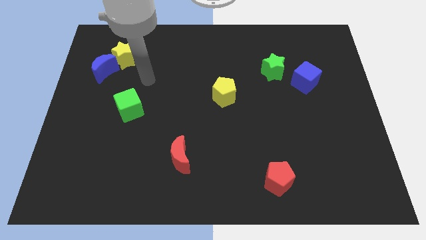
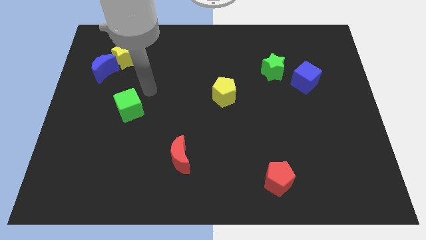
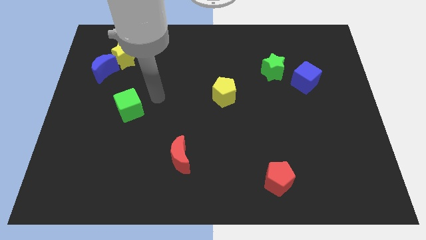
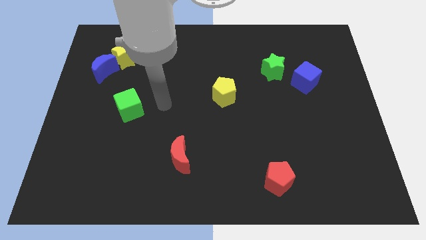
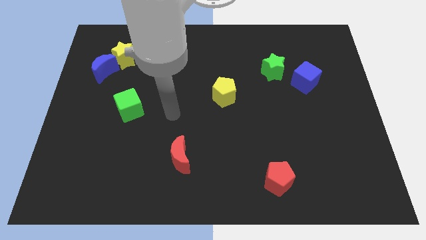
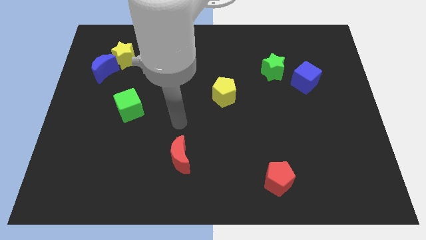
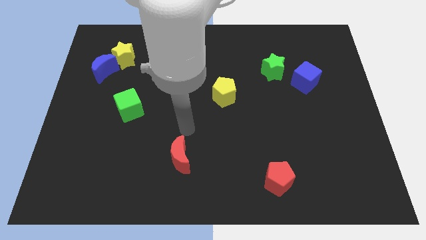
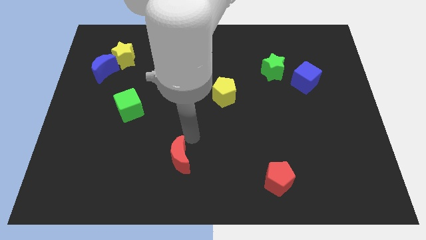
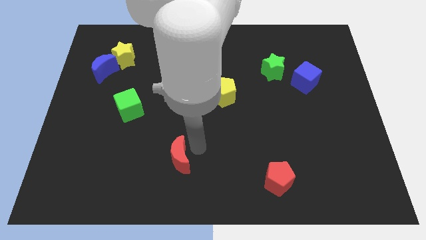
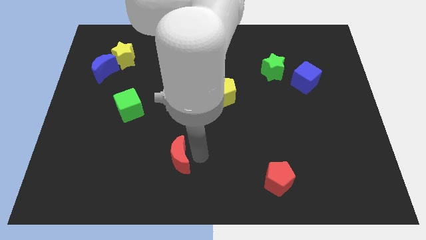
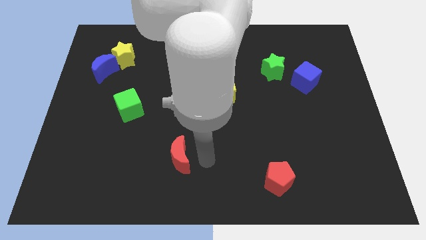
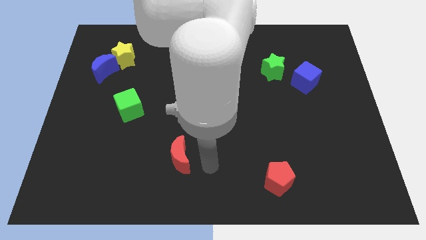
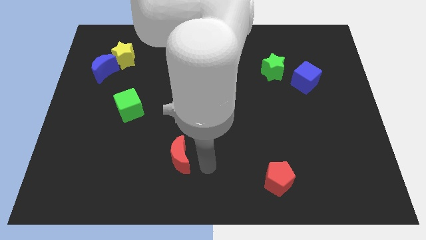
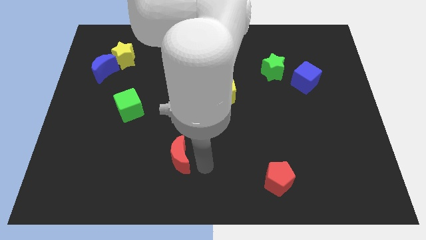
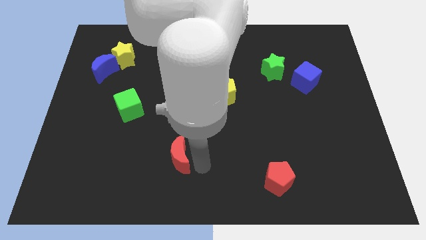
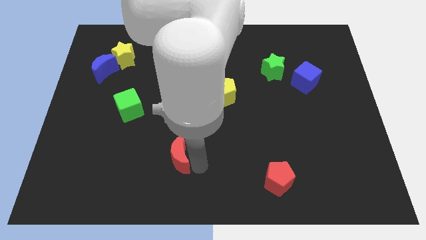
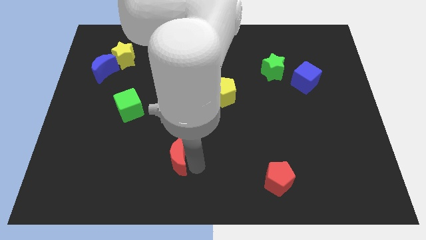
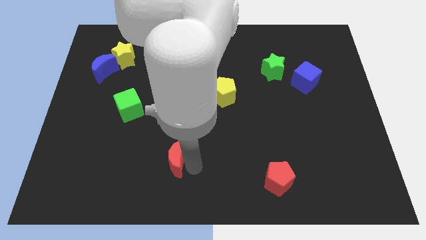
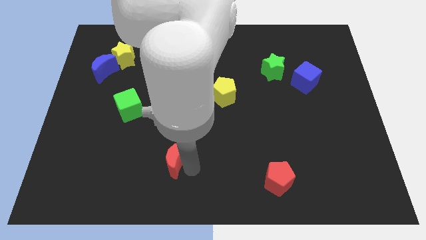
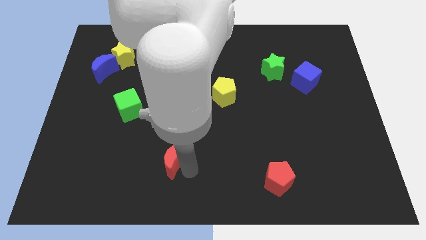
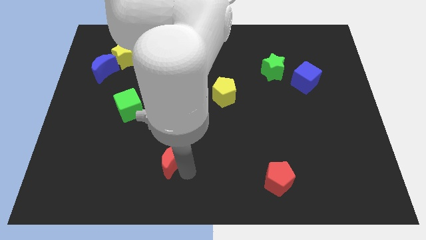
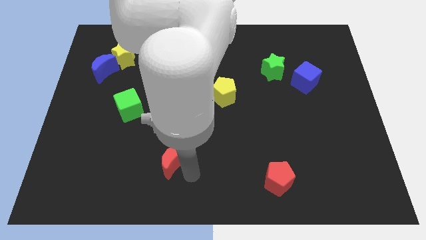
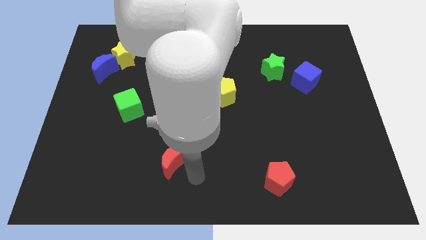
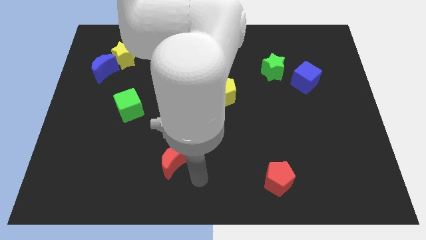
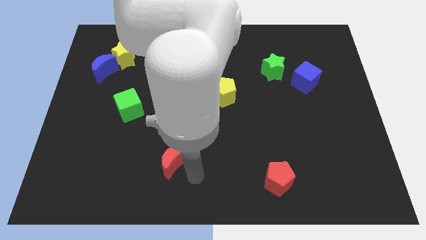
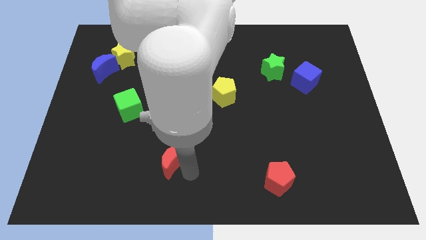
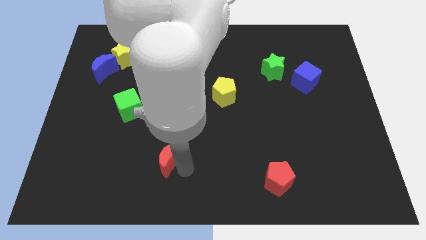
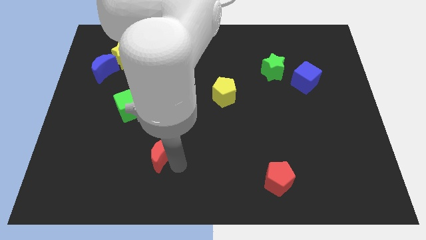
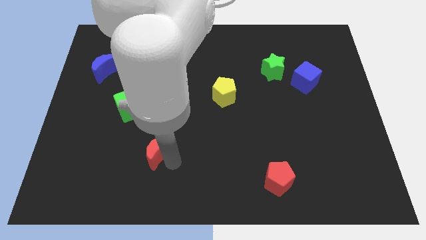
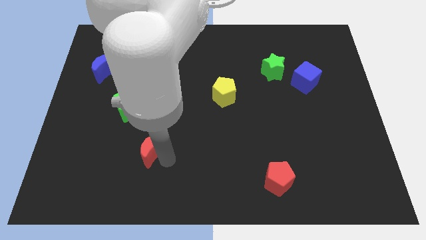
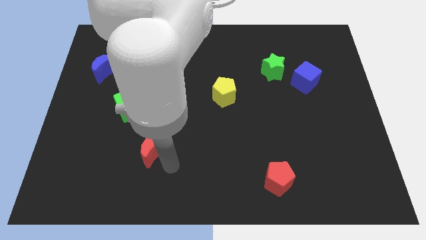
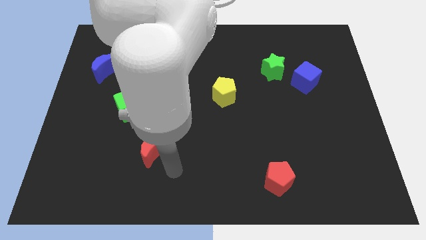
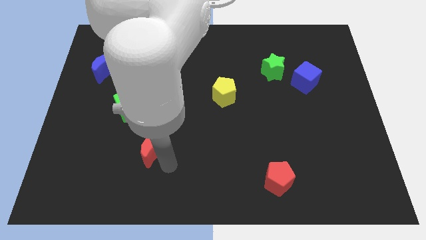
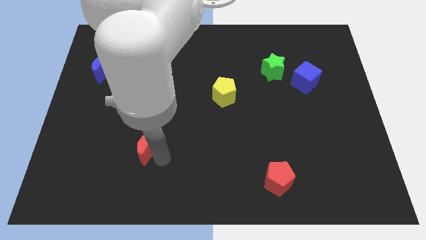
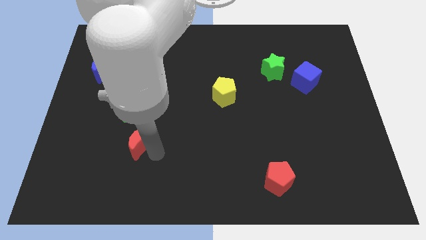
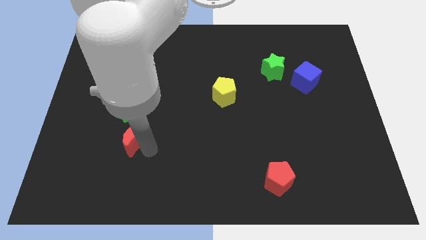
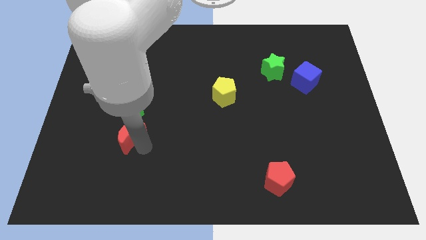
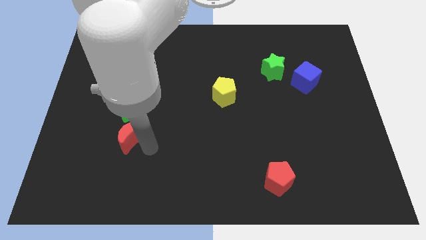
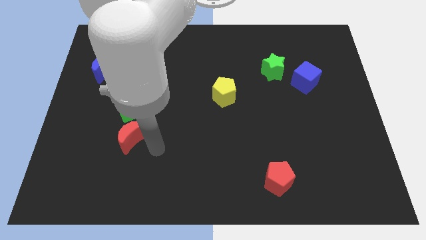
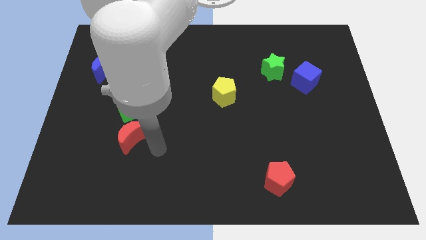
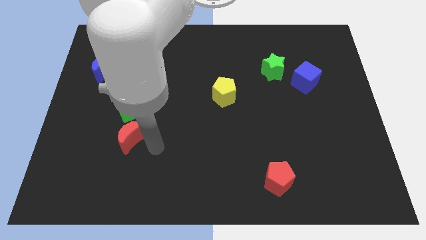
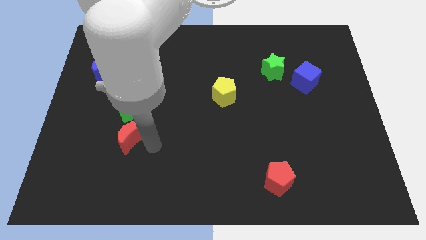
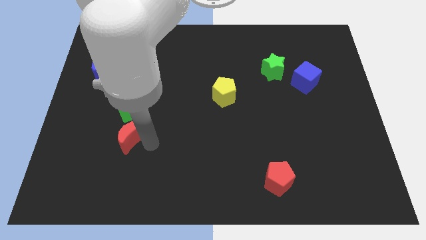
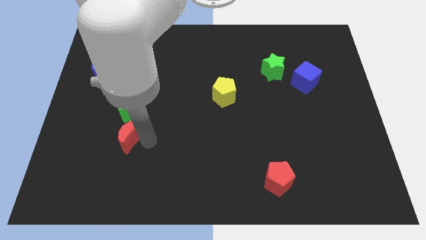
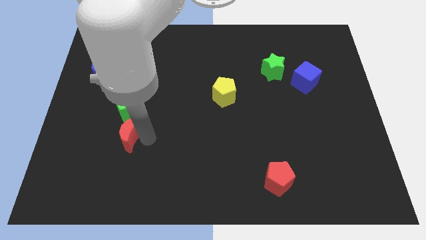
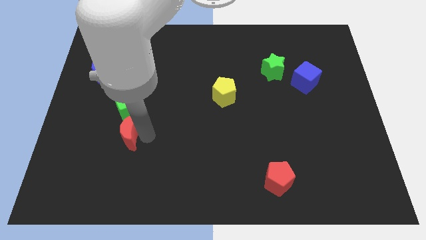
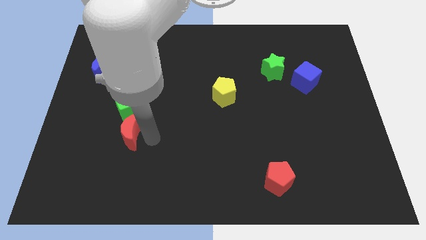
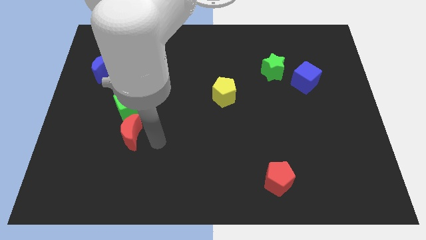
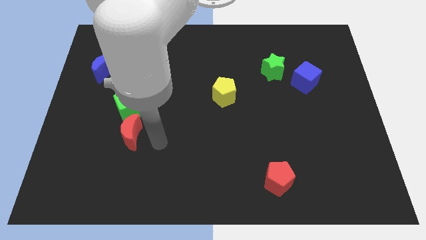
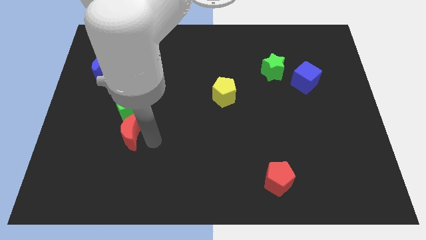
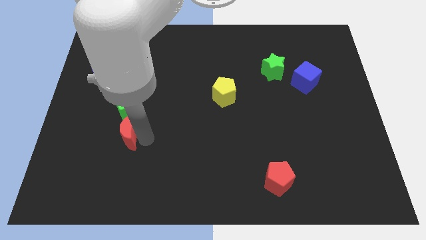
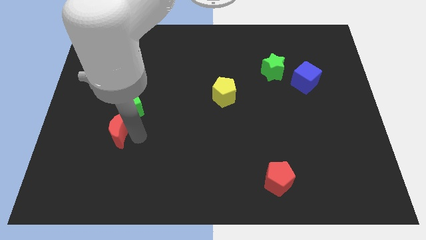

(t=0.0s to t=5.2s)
move the red moon to the bottom left of the green cube

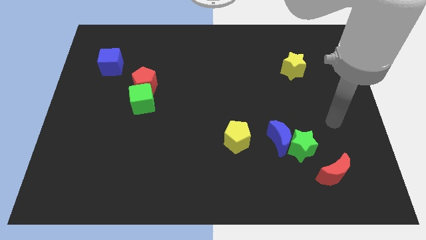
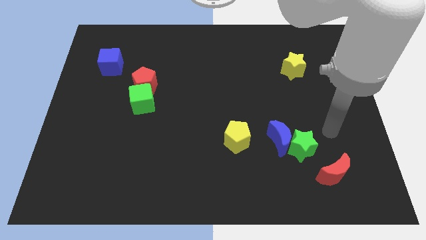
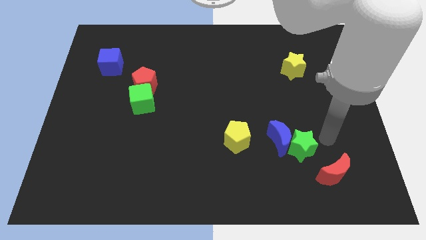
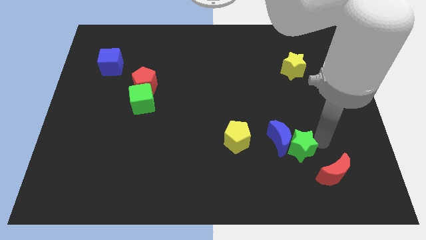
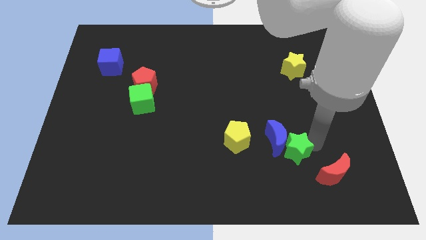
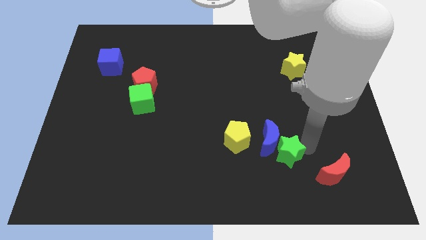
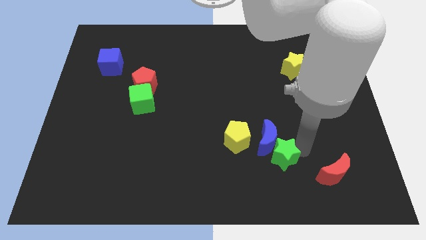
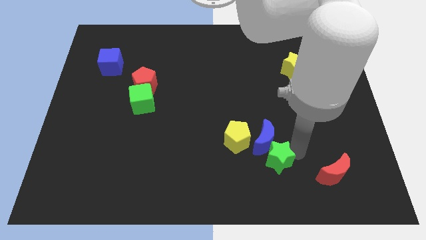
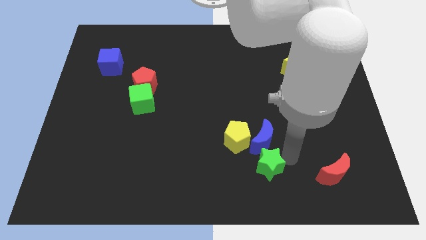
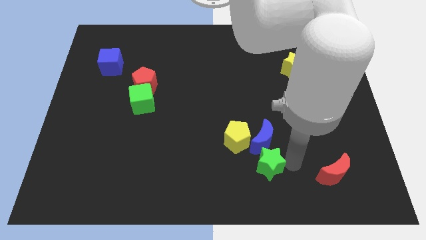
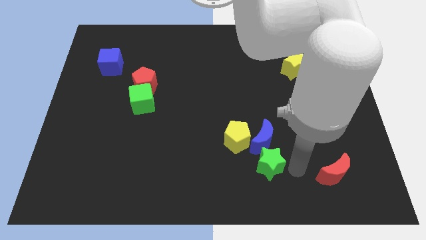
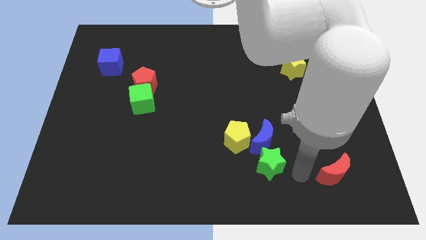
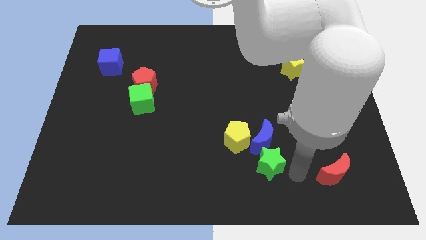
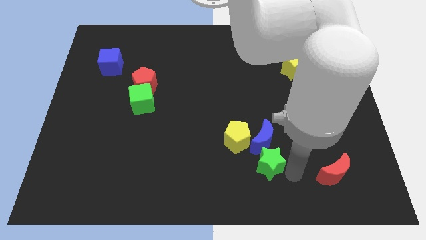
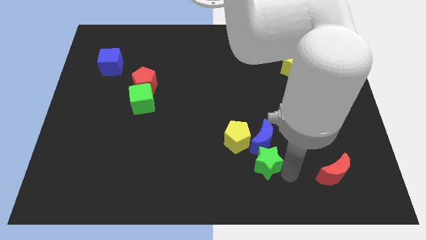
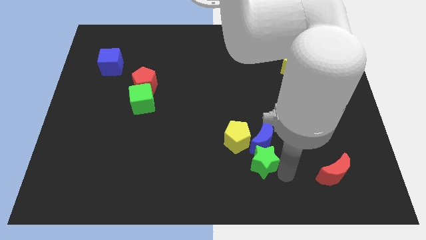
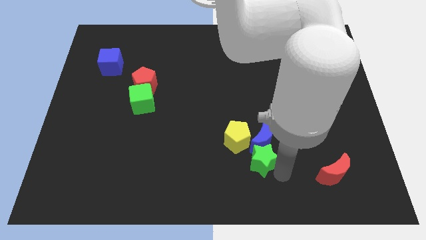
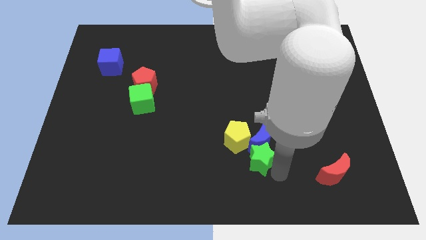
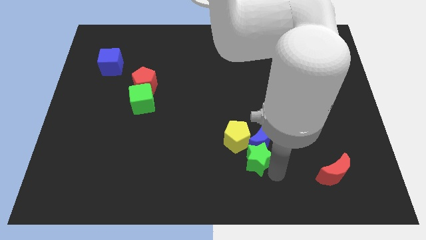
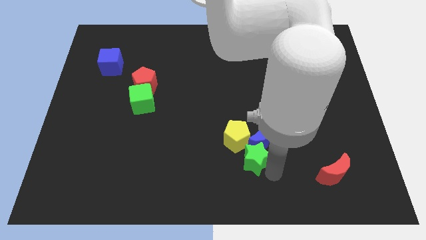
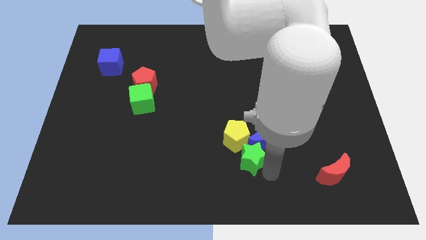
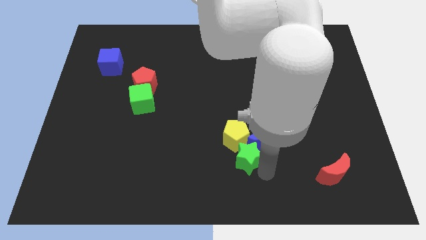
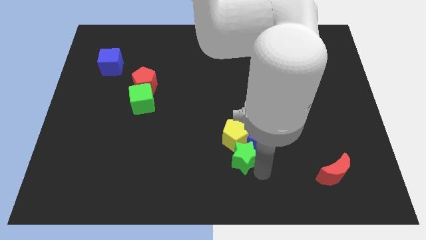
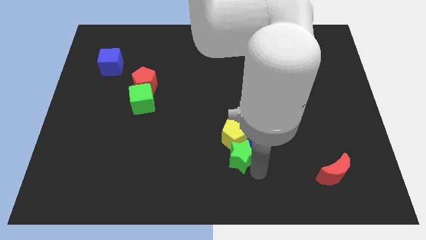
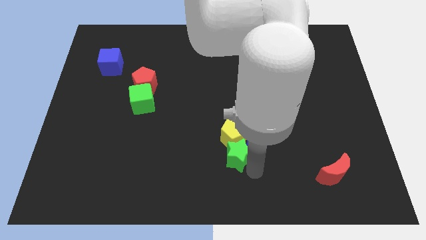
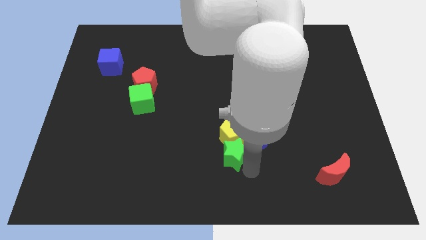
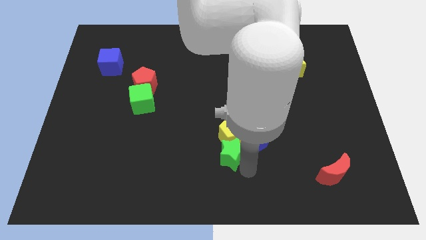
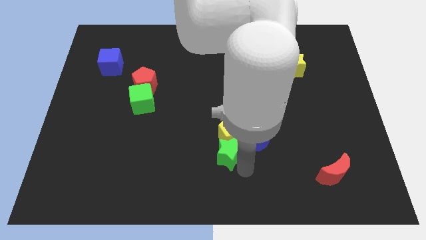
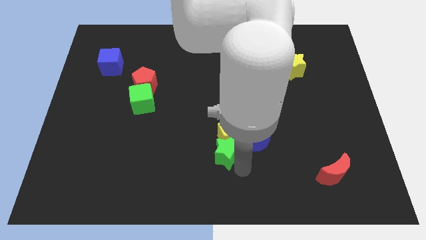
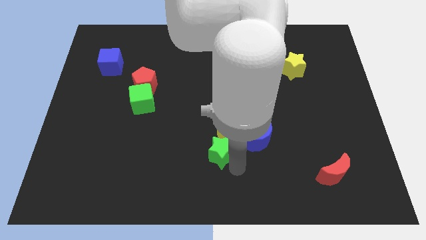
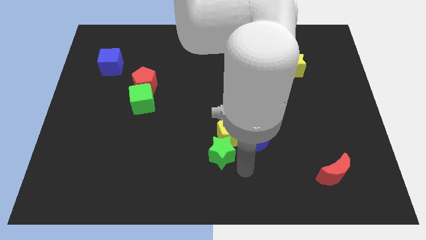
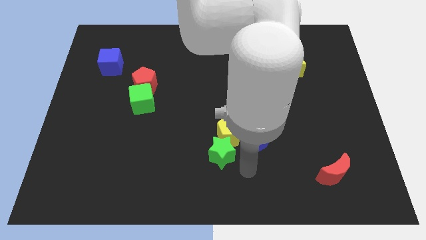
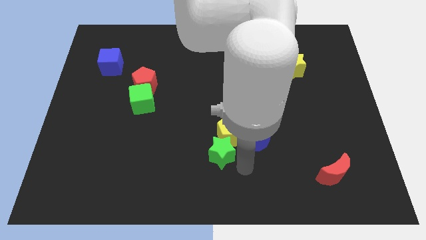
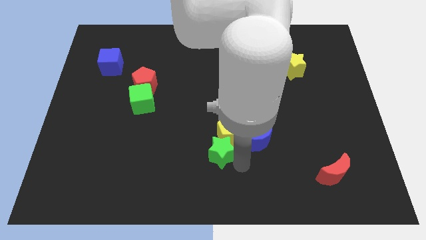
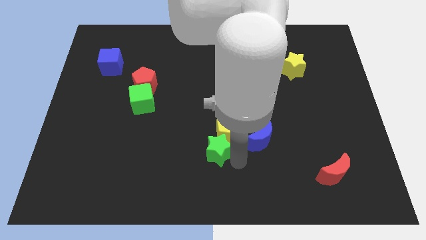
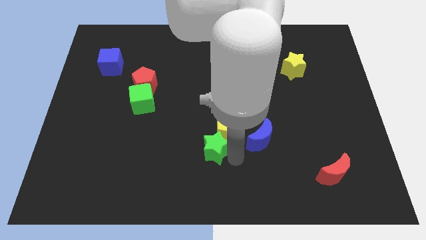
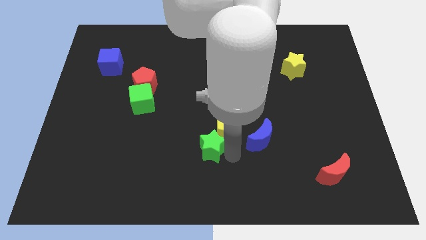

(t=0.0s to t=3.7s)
push the green star to the left of the yellow pentagon
